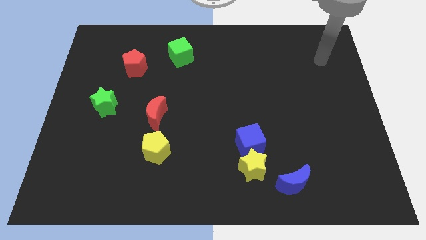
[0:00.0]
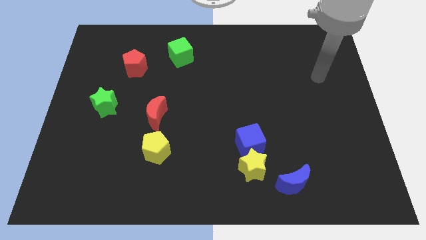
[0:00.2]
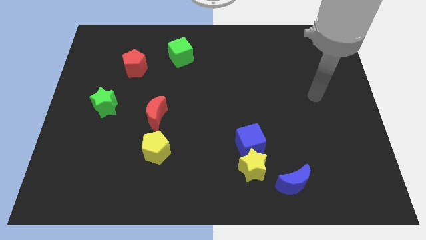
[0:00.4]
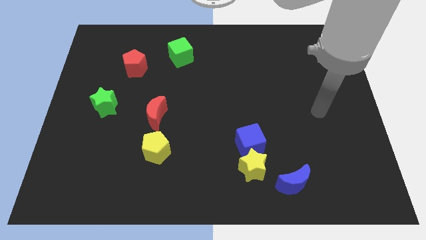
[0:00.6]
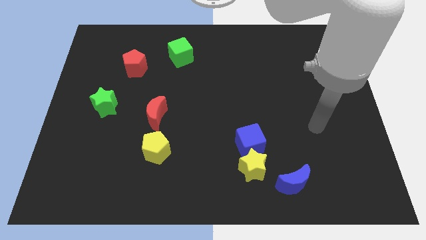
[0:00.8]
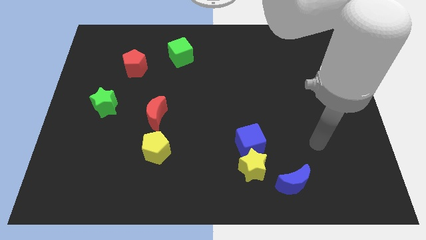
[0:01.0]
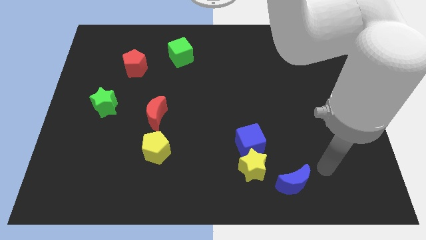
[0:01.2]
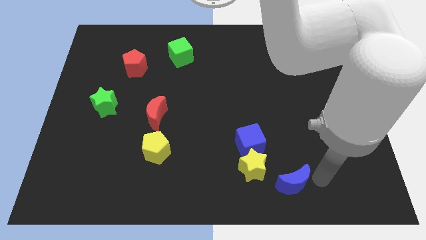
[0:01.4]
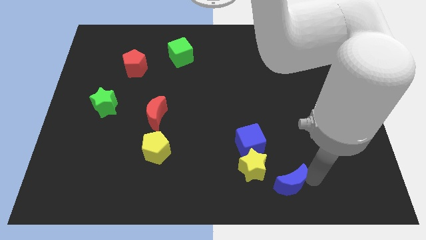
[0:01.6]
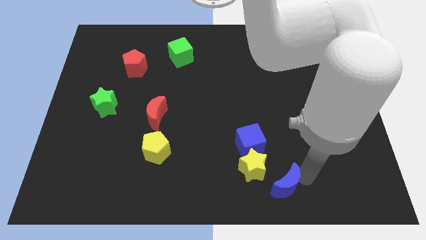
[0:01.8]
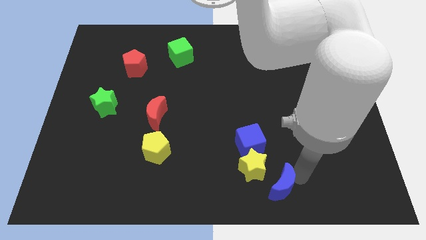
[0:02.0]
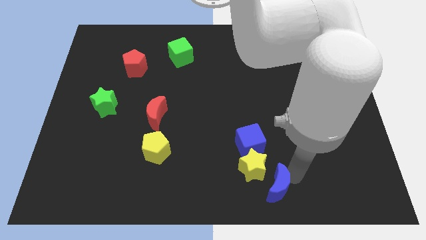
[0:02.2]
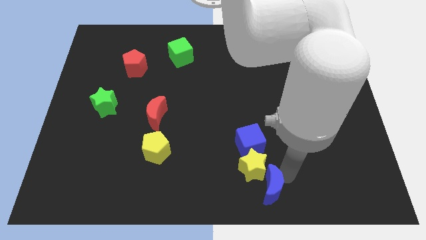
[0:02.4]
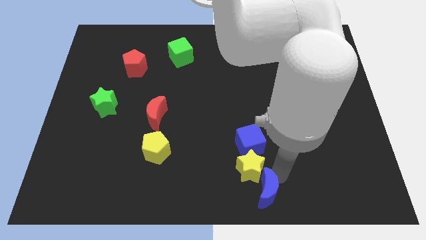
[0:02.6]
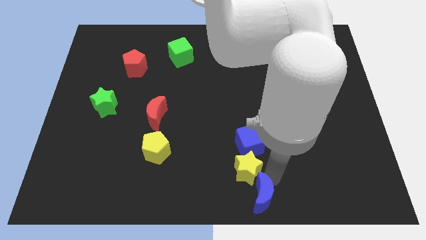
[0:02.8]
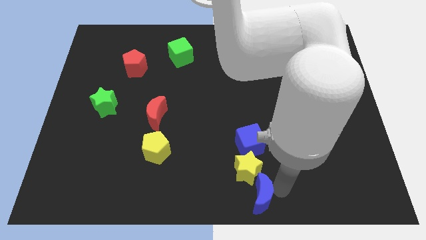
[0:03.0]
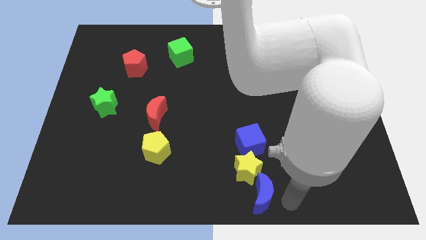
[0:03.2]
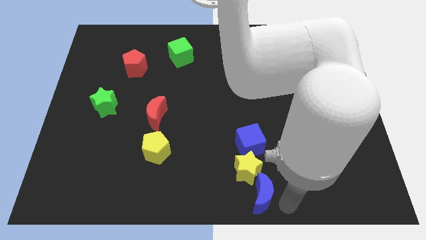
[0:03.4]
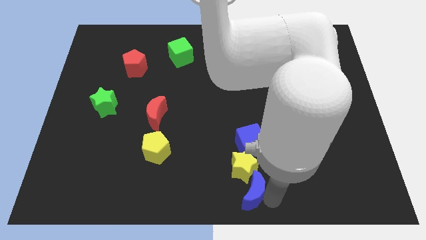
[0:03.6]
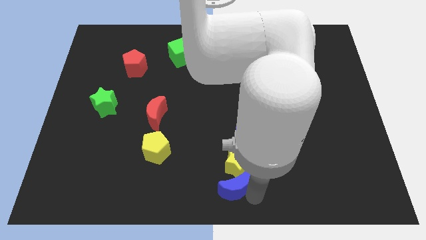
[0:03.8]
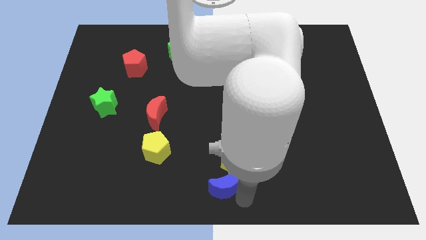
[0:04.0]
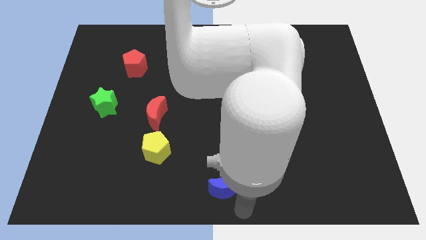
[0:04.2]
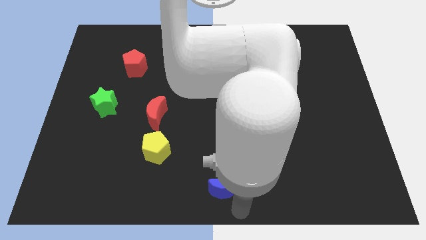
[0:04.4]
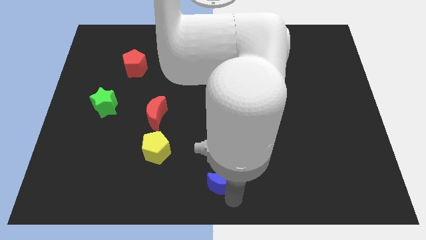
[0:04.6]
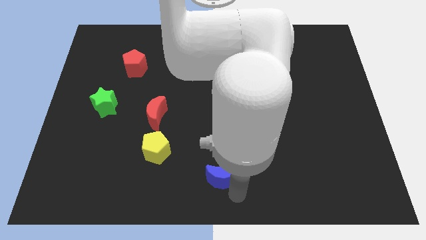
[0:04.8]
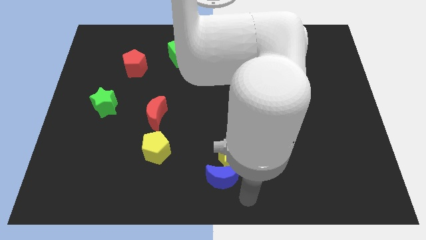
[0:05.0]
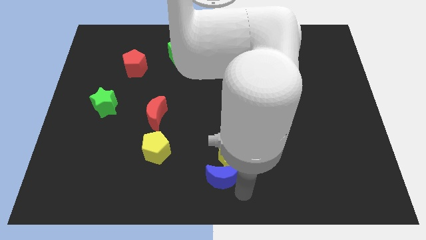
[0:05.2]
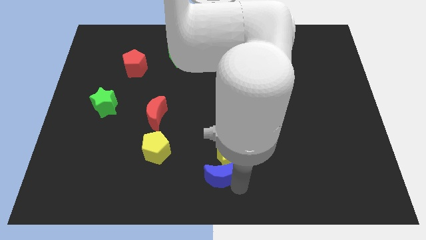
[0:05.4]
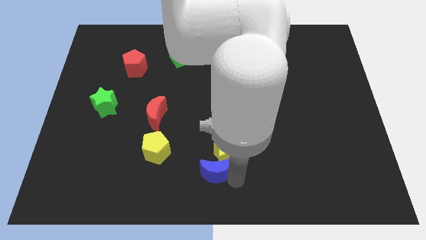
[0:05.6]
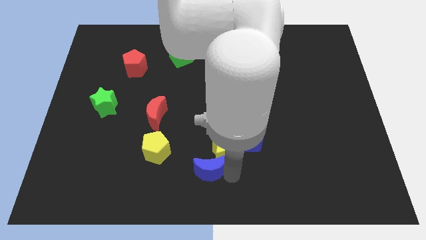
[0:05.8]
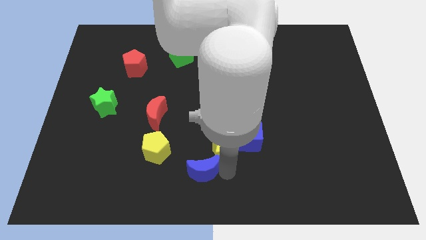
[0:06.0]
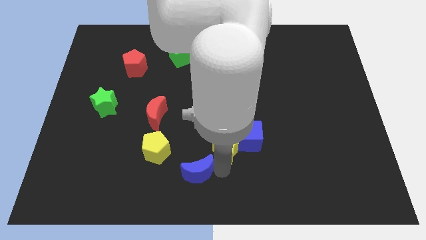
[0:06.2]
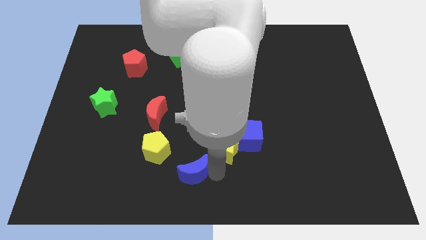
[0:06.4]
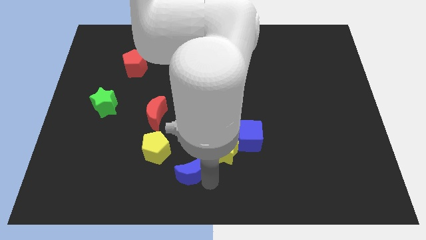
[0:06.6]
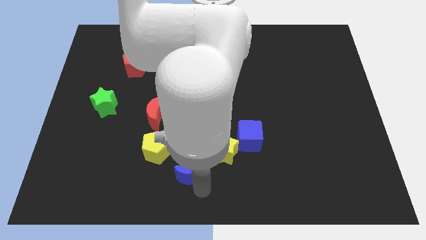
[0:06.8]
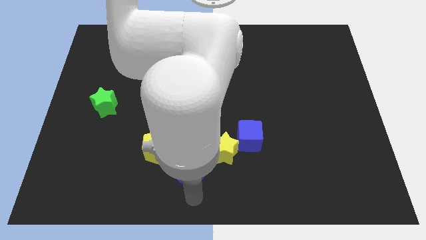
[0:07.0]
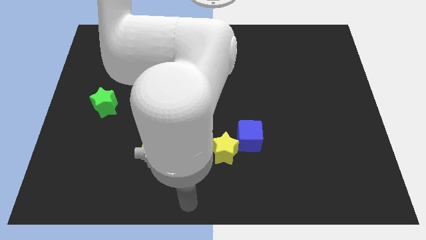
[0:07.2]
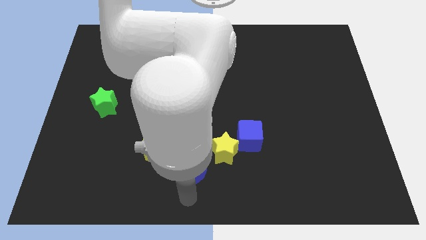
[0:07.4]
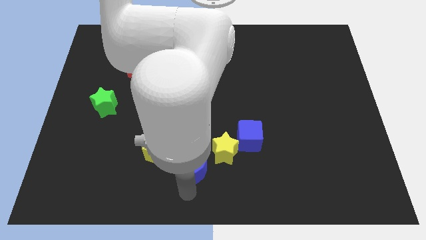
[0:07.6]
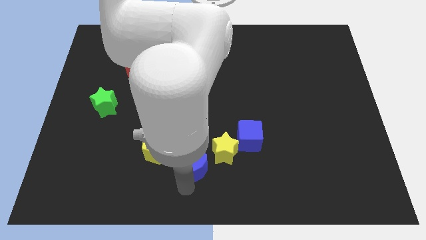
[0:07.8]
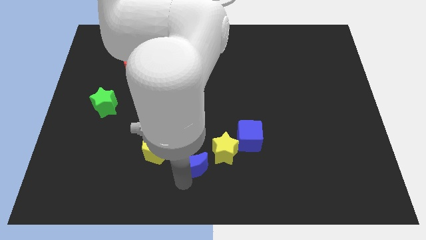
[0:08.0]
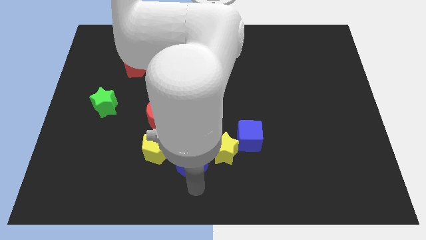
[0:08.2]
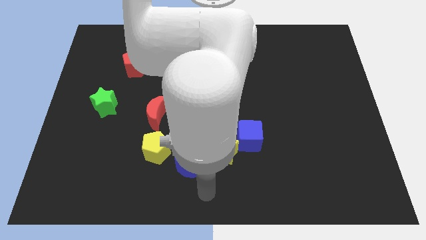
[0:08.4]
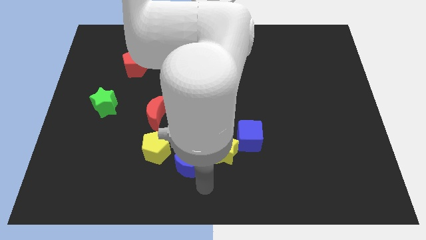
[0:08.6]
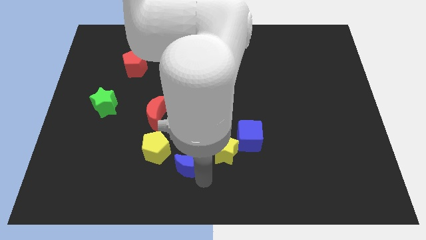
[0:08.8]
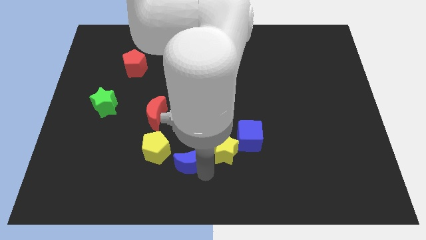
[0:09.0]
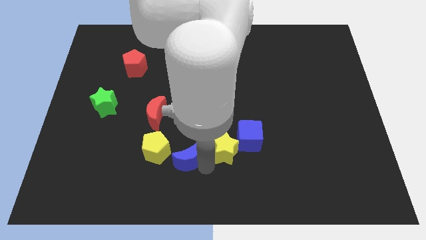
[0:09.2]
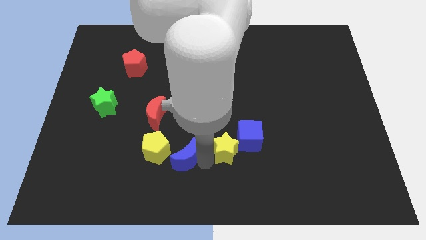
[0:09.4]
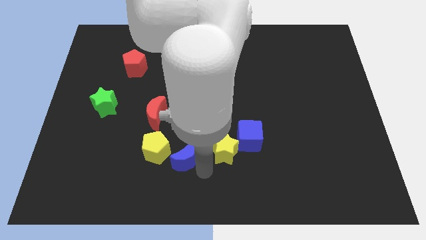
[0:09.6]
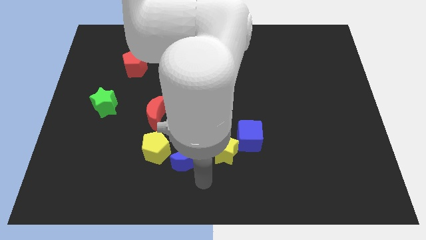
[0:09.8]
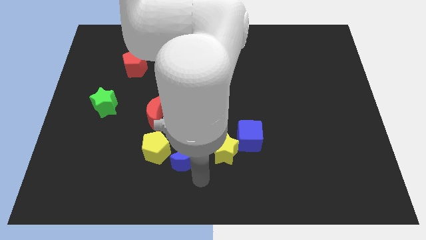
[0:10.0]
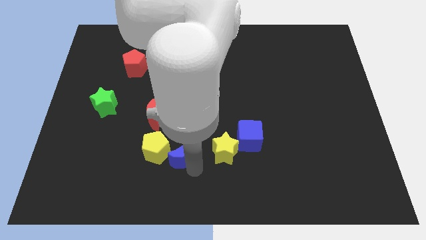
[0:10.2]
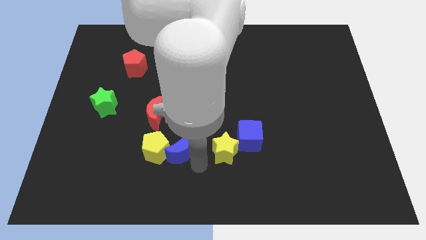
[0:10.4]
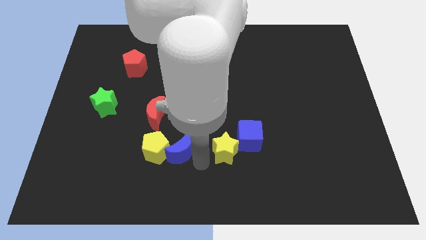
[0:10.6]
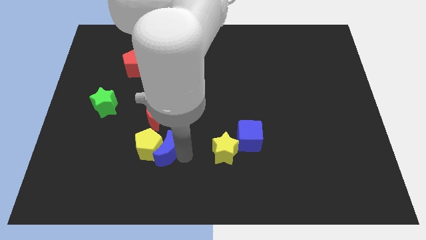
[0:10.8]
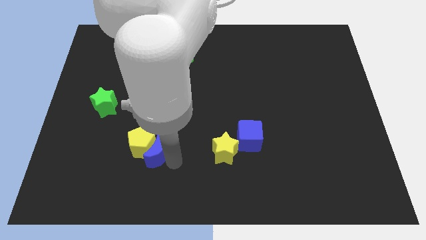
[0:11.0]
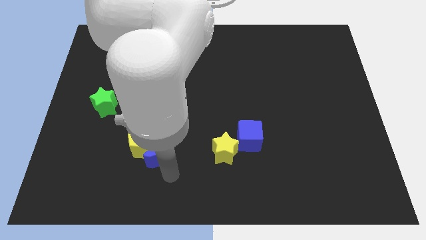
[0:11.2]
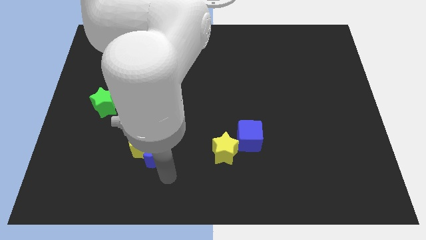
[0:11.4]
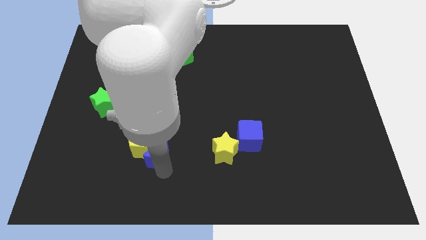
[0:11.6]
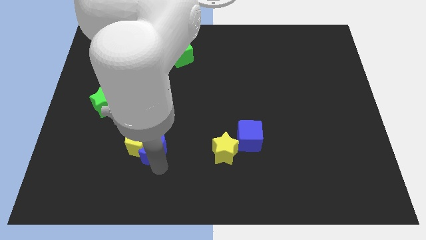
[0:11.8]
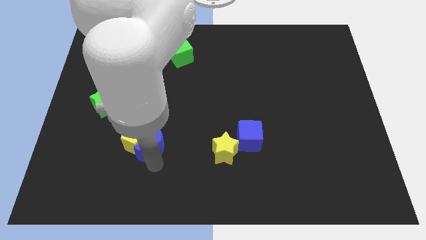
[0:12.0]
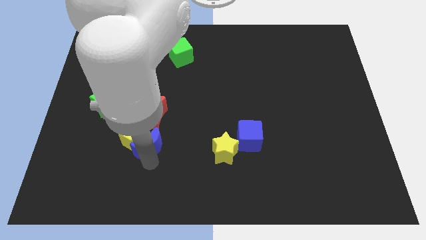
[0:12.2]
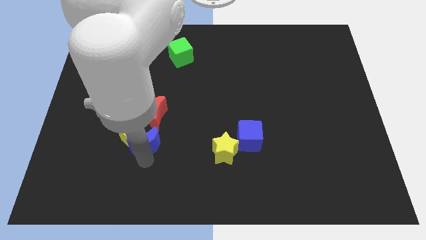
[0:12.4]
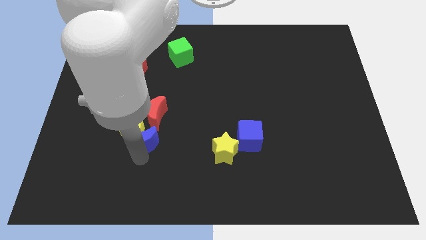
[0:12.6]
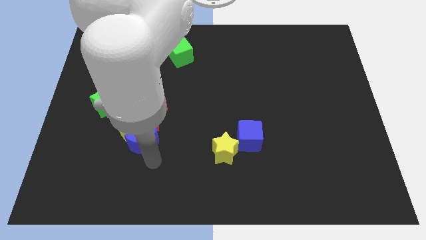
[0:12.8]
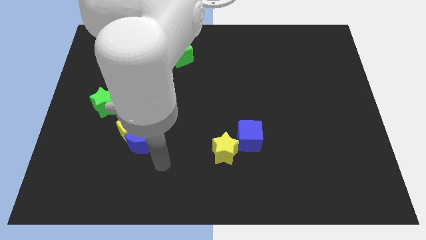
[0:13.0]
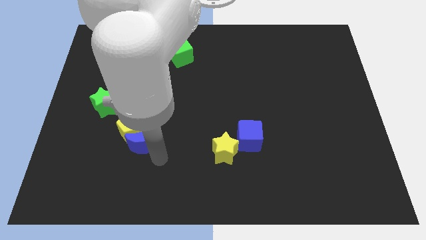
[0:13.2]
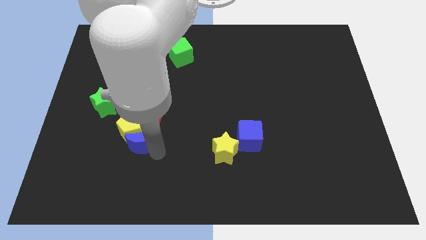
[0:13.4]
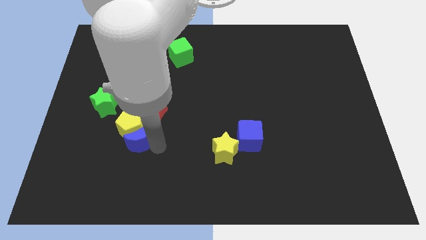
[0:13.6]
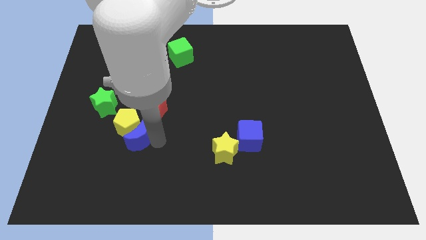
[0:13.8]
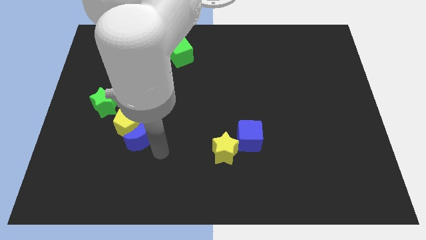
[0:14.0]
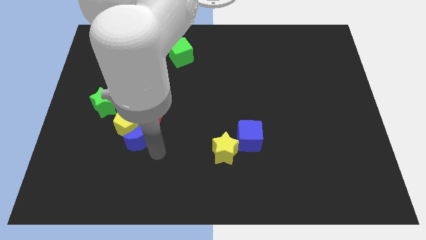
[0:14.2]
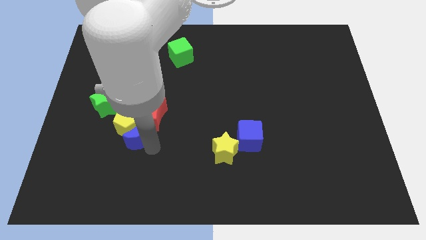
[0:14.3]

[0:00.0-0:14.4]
slide the blue moon to the bottom right side of the green star
